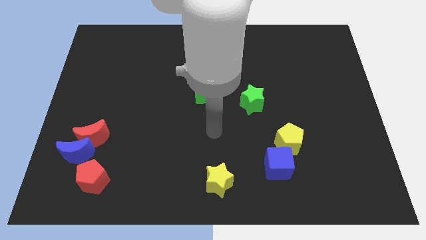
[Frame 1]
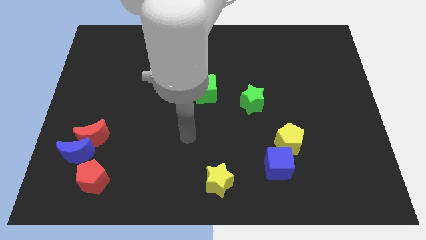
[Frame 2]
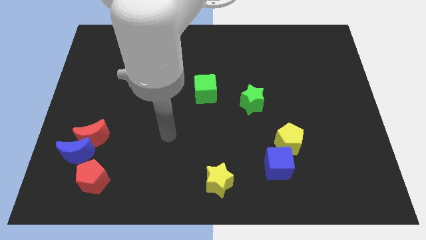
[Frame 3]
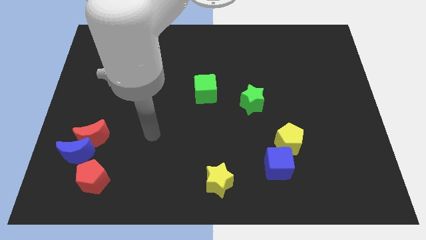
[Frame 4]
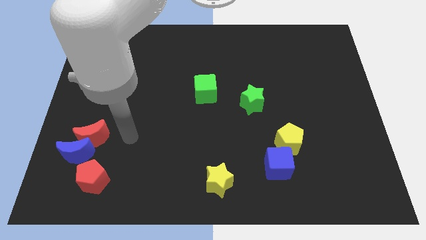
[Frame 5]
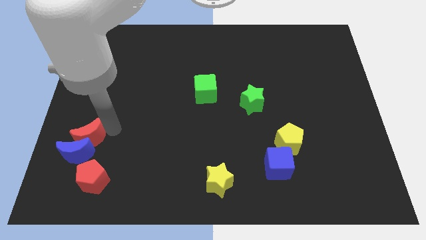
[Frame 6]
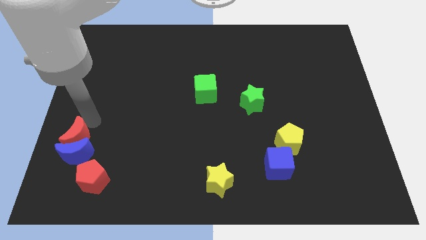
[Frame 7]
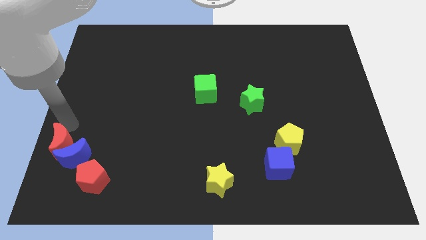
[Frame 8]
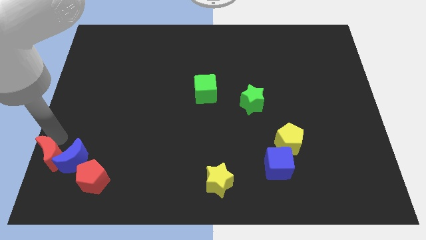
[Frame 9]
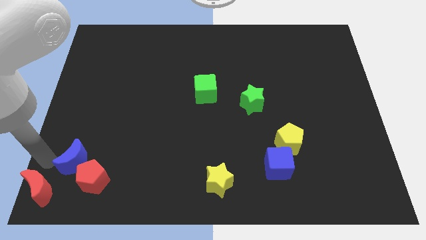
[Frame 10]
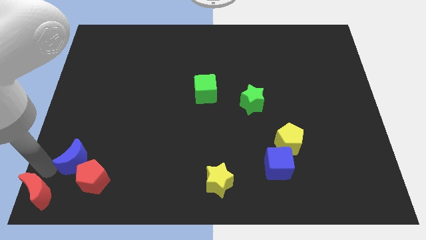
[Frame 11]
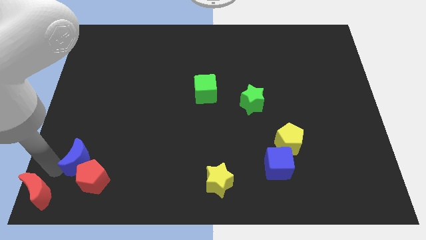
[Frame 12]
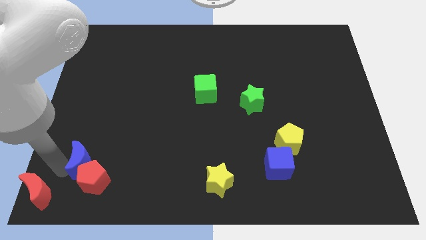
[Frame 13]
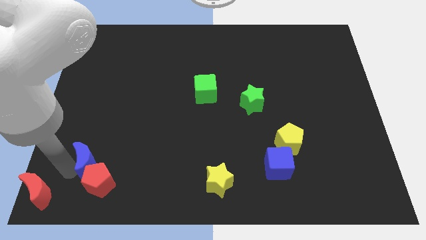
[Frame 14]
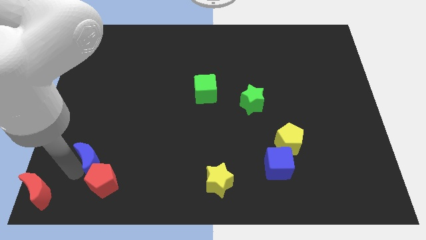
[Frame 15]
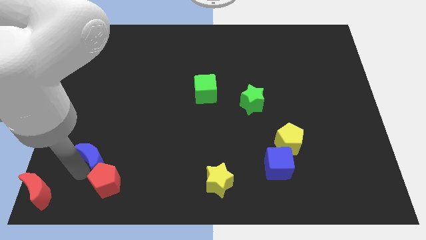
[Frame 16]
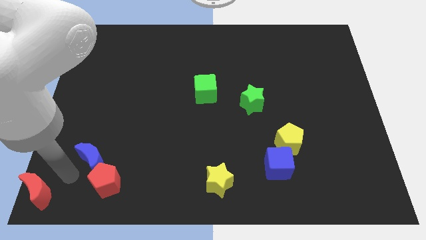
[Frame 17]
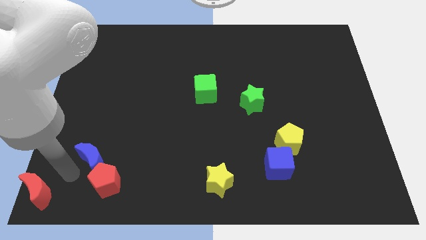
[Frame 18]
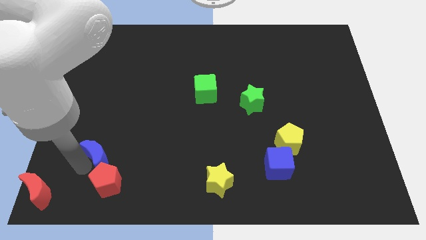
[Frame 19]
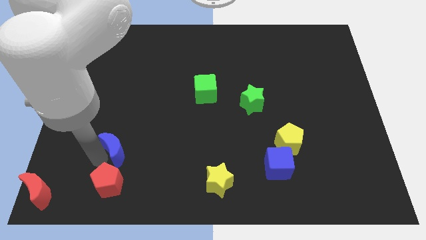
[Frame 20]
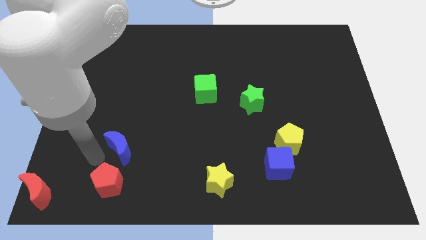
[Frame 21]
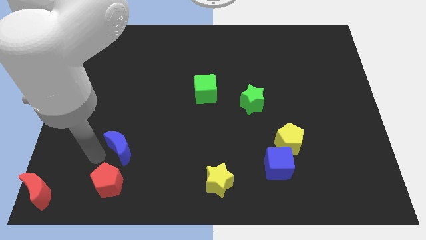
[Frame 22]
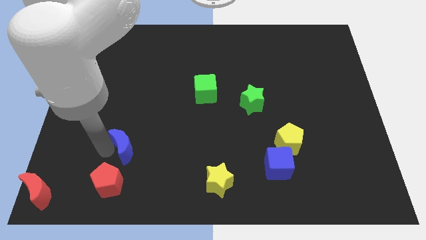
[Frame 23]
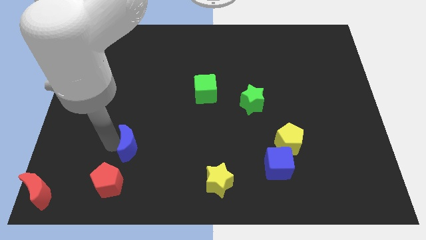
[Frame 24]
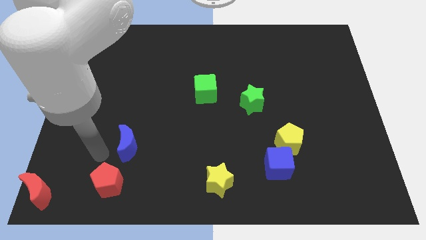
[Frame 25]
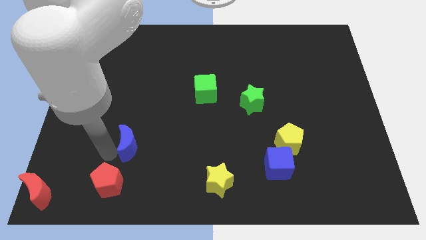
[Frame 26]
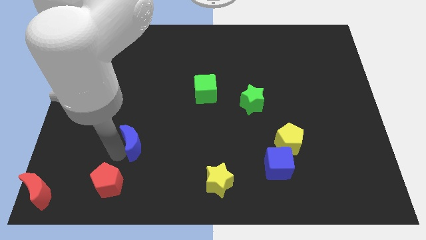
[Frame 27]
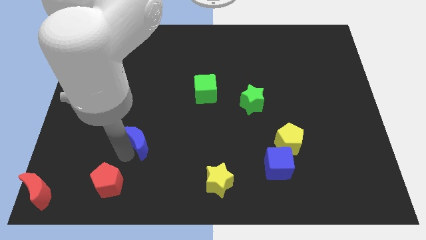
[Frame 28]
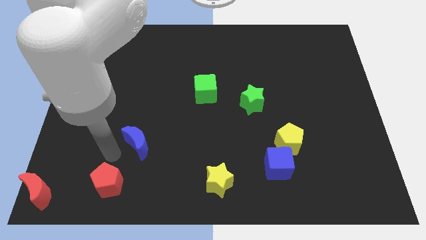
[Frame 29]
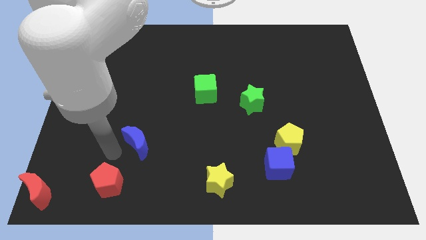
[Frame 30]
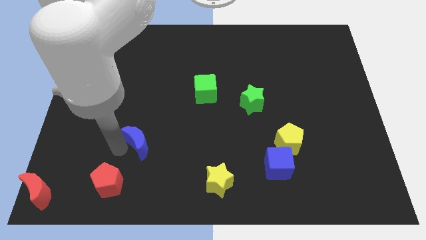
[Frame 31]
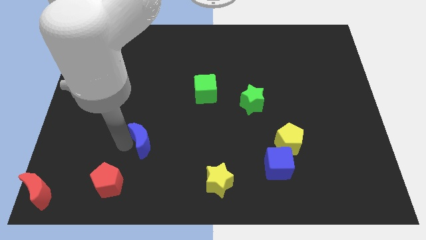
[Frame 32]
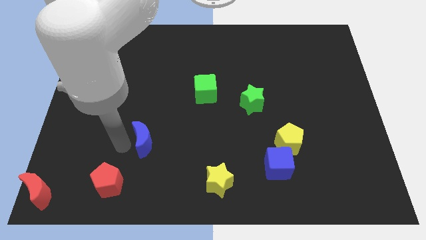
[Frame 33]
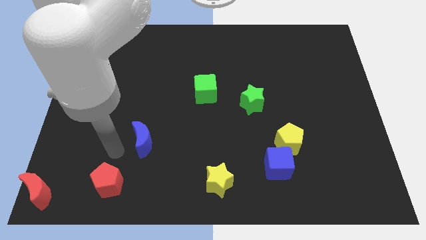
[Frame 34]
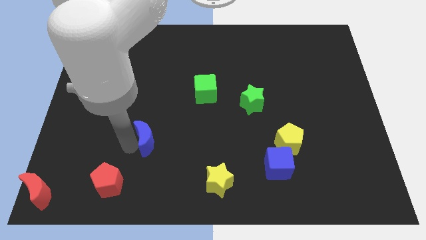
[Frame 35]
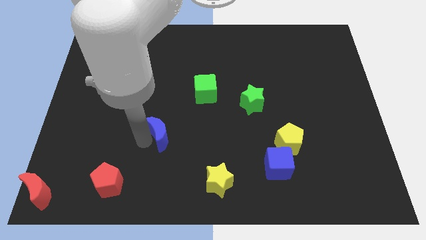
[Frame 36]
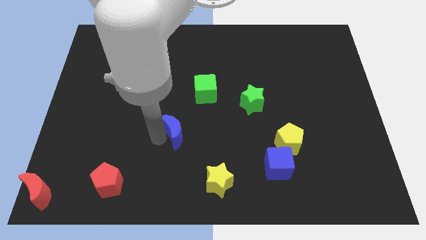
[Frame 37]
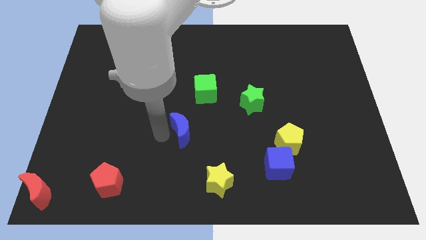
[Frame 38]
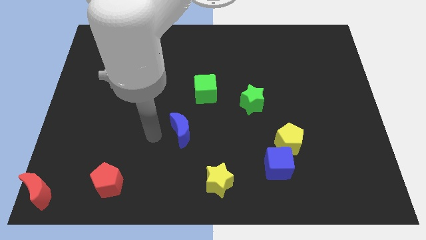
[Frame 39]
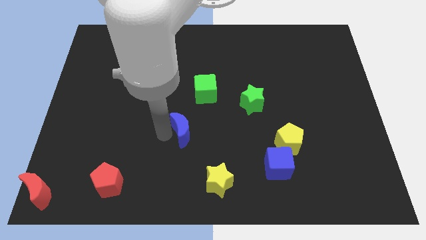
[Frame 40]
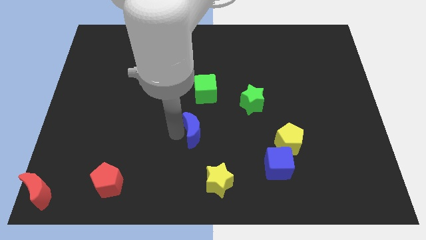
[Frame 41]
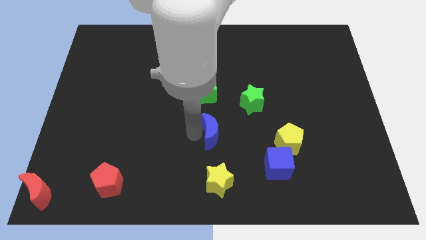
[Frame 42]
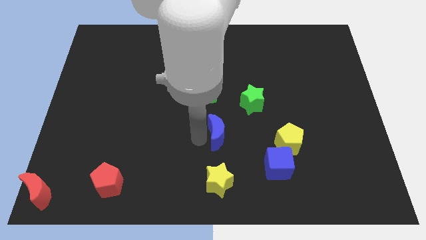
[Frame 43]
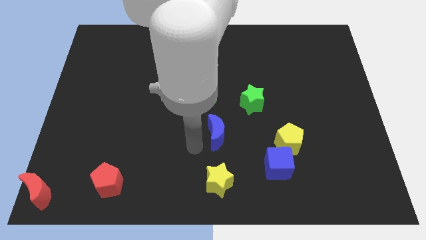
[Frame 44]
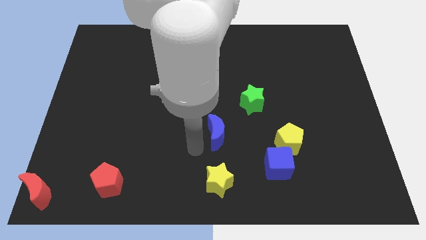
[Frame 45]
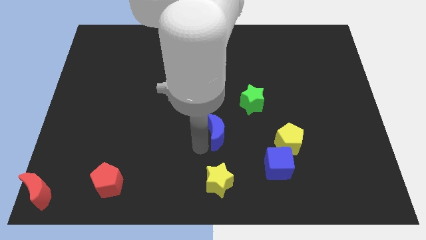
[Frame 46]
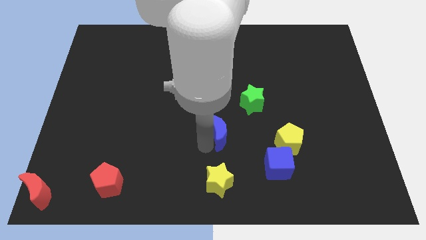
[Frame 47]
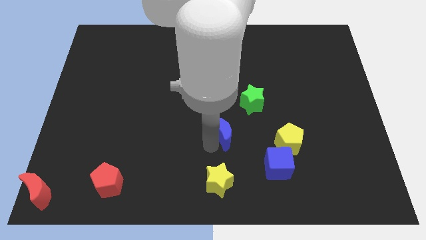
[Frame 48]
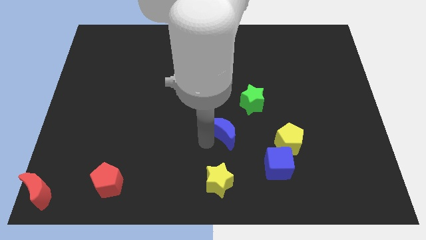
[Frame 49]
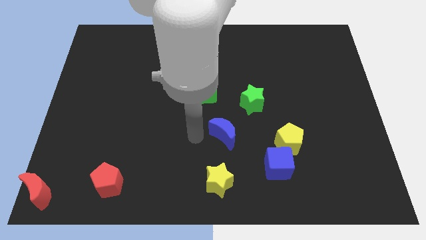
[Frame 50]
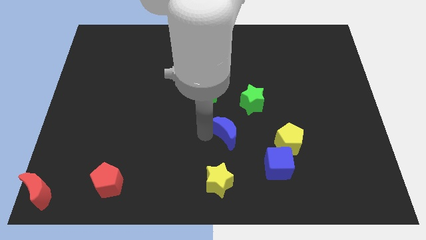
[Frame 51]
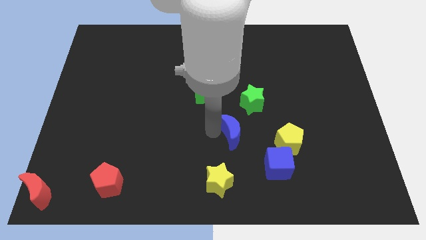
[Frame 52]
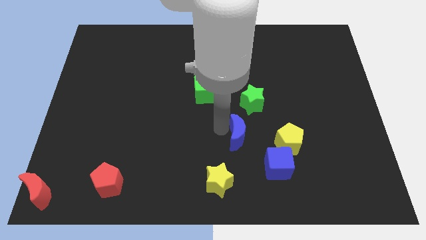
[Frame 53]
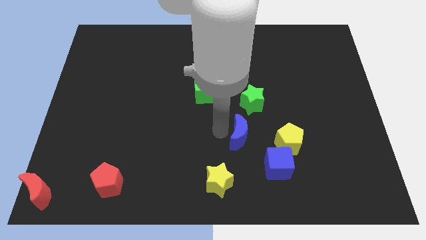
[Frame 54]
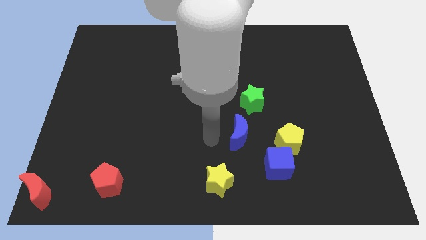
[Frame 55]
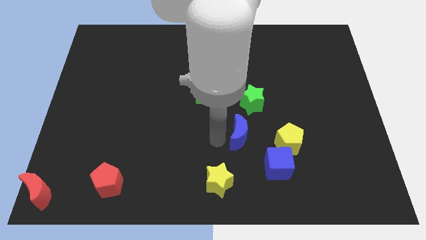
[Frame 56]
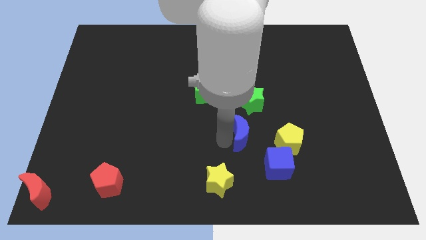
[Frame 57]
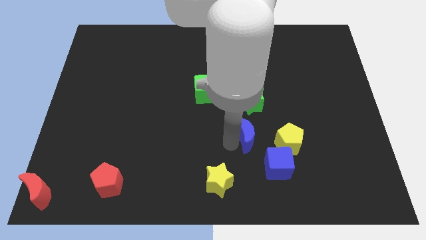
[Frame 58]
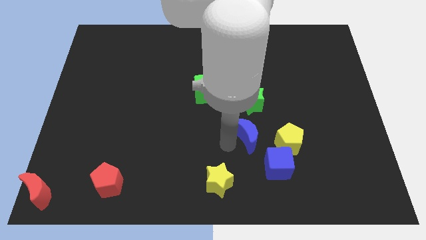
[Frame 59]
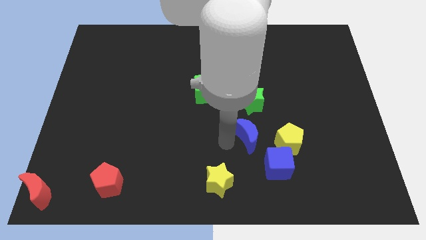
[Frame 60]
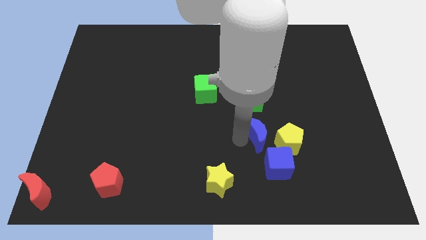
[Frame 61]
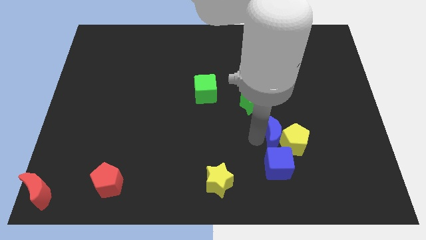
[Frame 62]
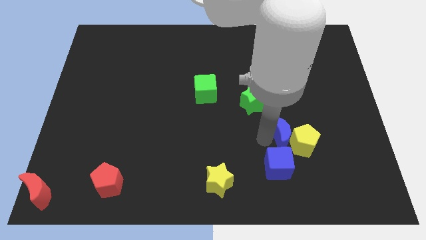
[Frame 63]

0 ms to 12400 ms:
slide the blue moon to the top right of the blue cube

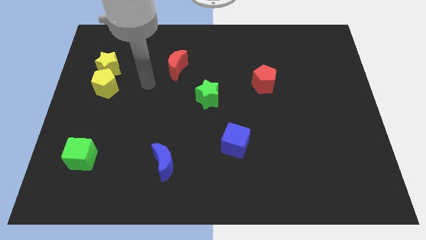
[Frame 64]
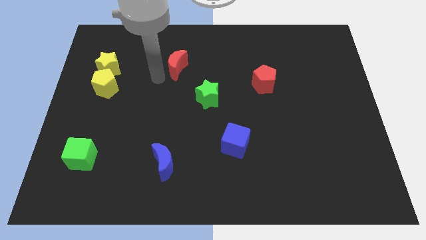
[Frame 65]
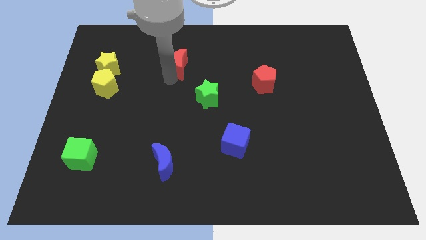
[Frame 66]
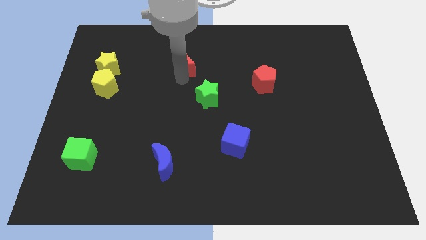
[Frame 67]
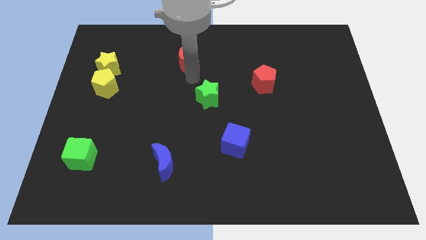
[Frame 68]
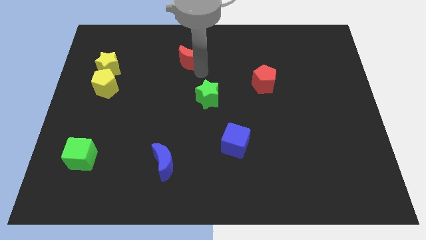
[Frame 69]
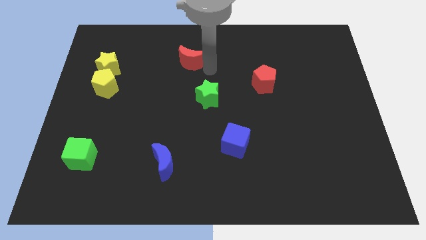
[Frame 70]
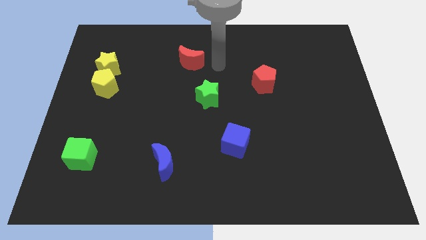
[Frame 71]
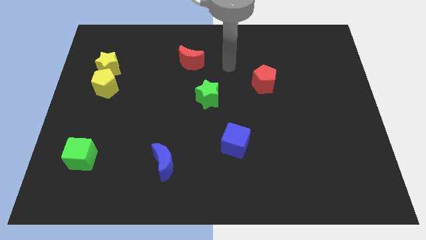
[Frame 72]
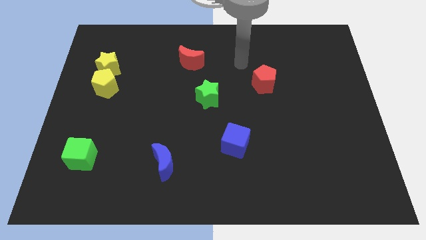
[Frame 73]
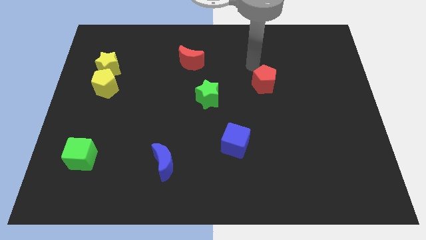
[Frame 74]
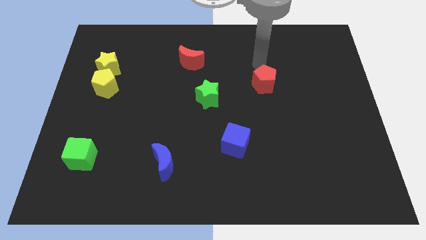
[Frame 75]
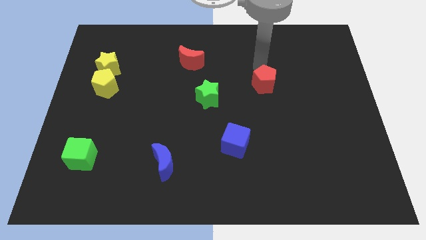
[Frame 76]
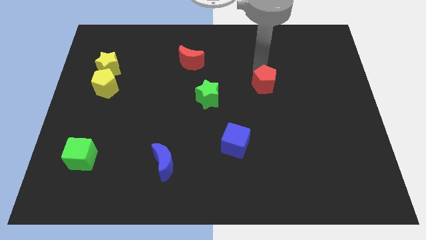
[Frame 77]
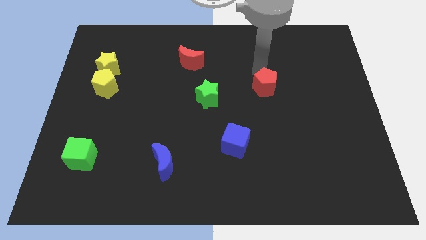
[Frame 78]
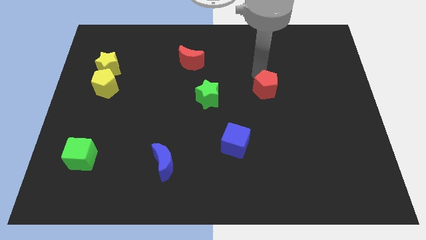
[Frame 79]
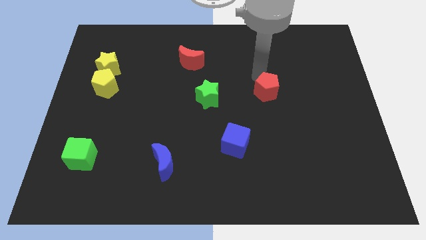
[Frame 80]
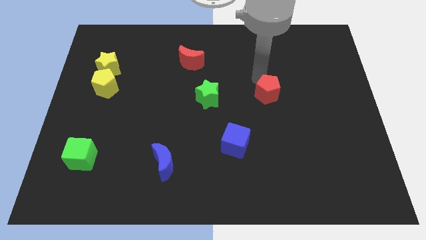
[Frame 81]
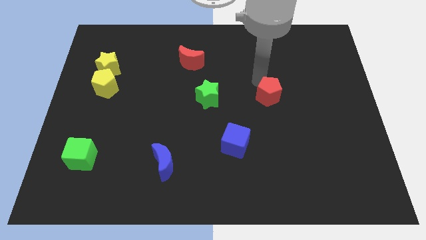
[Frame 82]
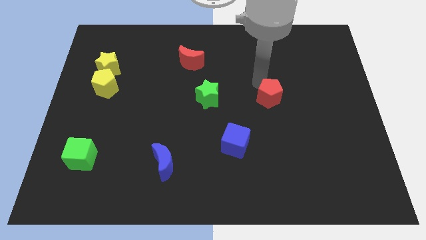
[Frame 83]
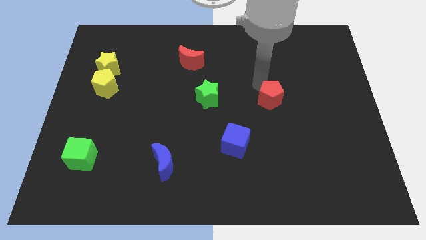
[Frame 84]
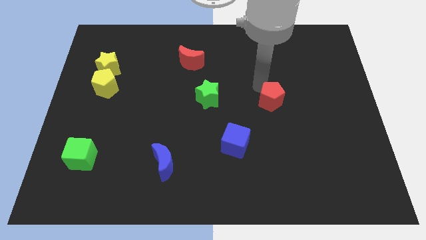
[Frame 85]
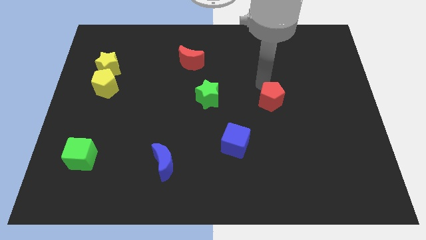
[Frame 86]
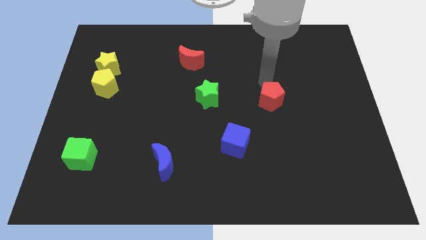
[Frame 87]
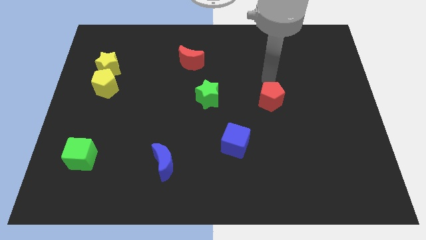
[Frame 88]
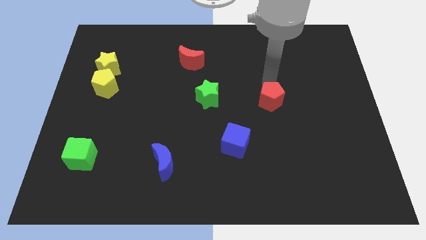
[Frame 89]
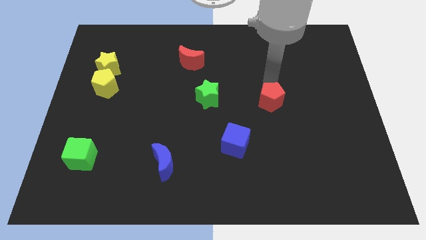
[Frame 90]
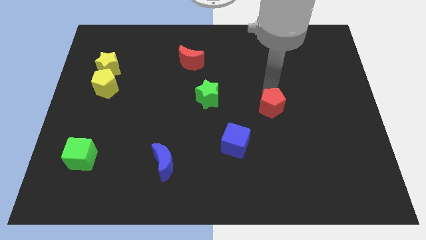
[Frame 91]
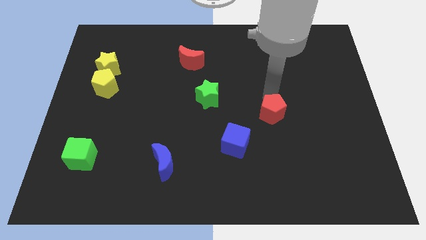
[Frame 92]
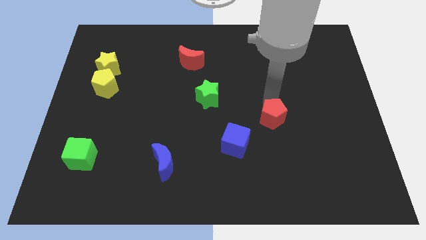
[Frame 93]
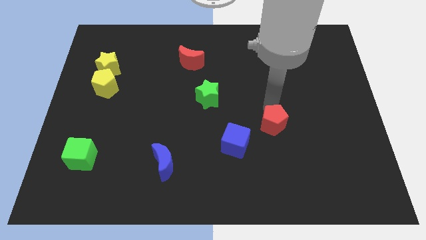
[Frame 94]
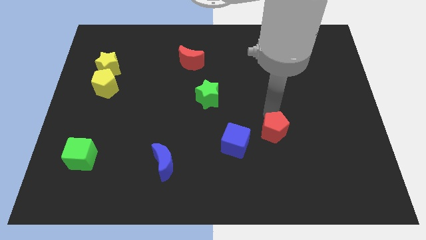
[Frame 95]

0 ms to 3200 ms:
slide the red pentagon just right of the blue cube
